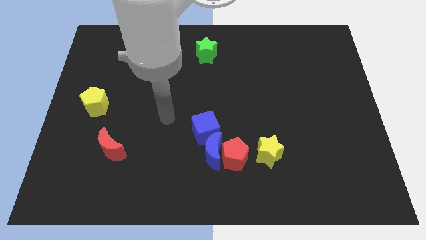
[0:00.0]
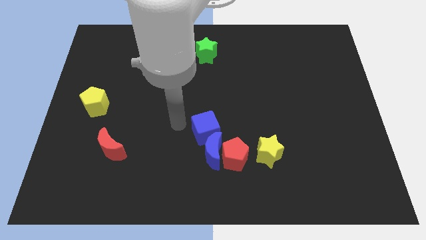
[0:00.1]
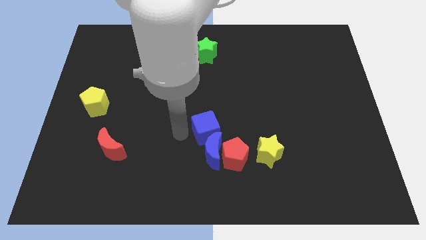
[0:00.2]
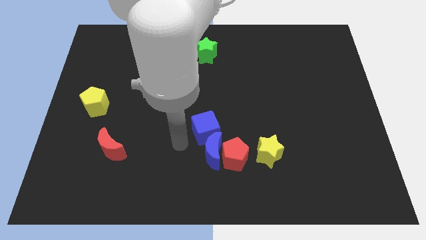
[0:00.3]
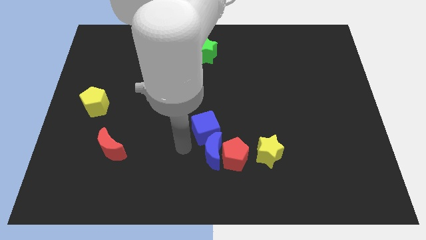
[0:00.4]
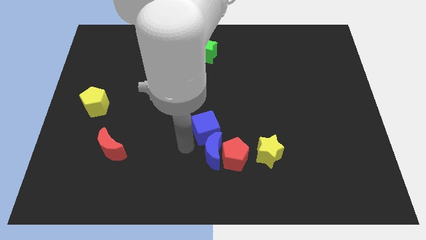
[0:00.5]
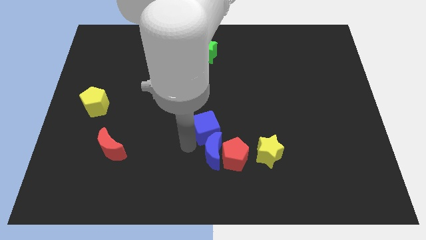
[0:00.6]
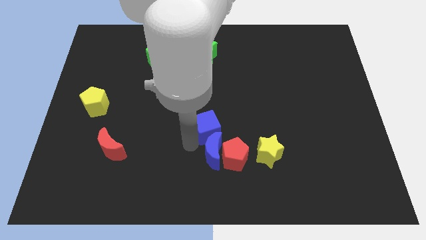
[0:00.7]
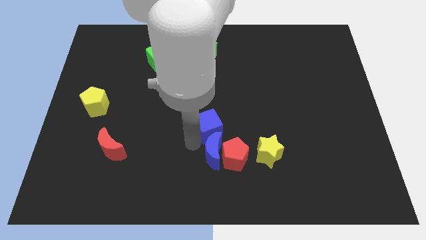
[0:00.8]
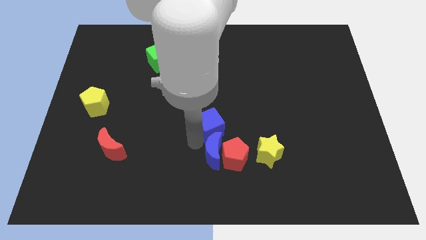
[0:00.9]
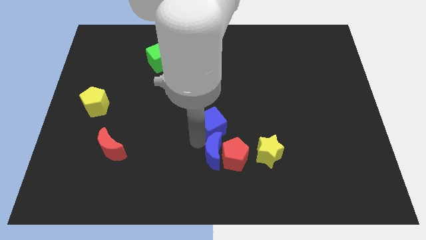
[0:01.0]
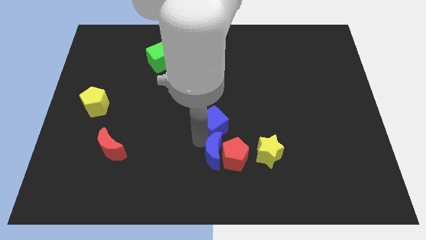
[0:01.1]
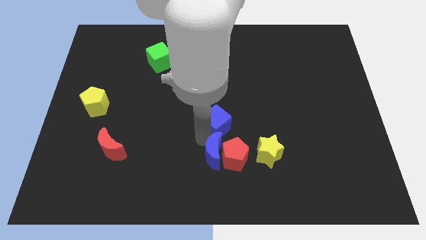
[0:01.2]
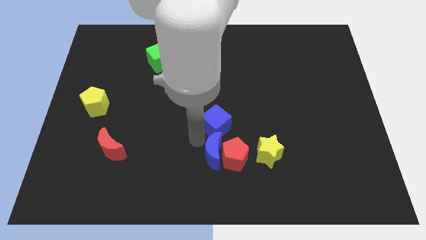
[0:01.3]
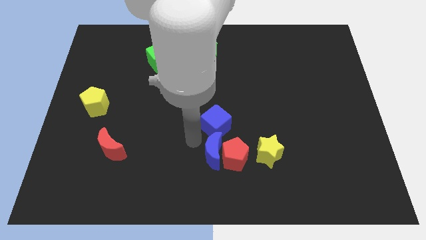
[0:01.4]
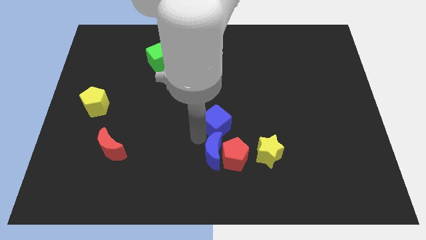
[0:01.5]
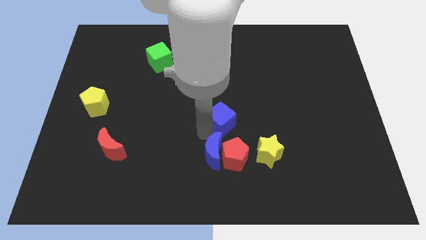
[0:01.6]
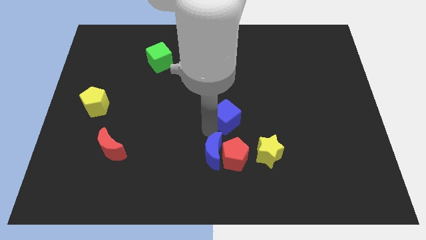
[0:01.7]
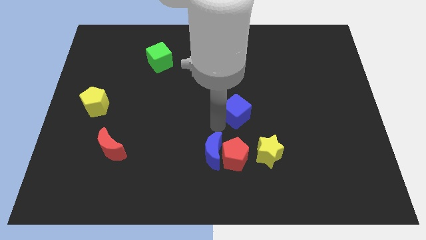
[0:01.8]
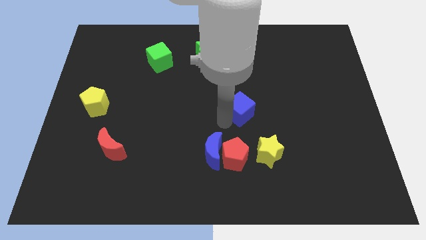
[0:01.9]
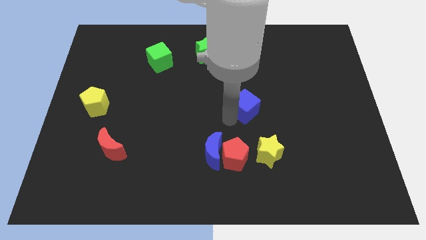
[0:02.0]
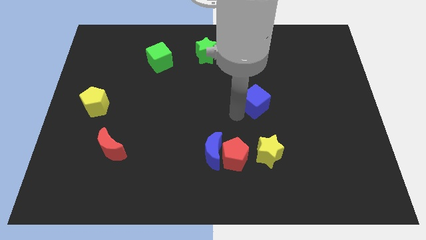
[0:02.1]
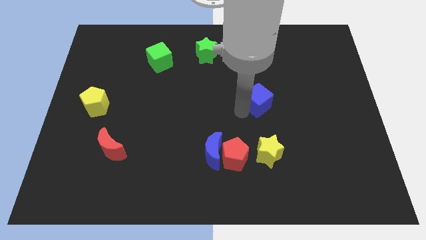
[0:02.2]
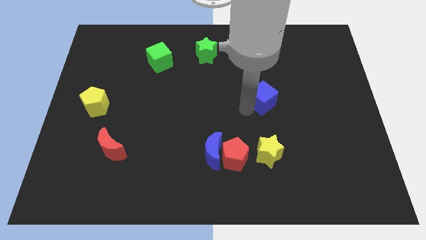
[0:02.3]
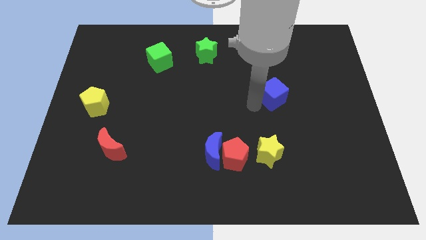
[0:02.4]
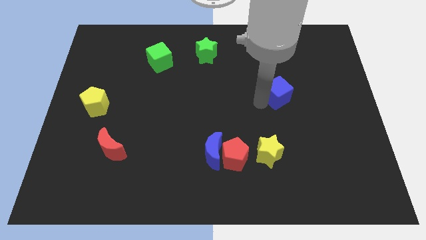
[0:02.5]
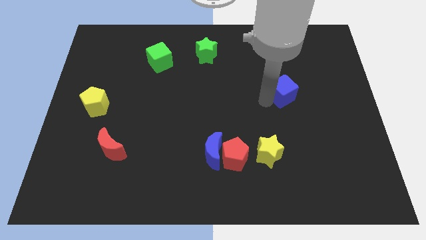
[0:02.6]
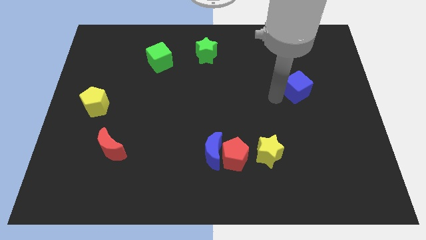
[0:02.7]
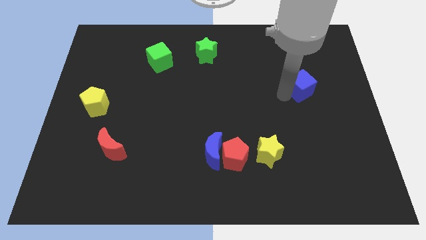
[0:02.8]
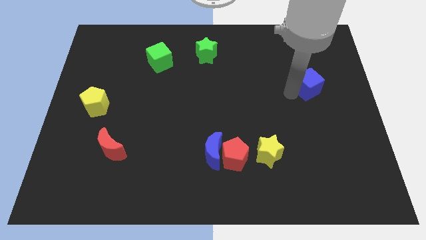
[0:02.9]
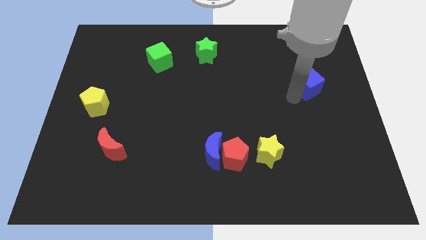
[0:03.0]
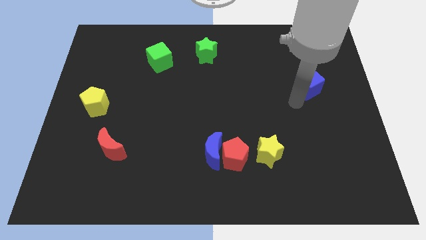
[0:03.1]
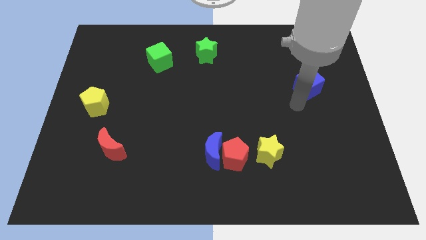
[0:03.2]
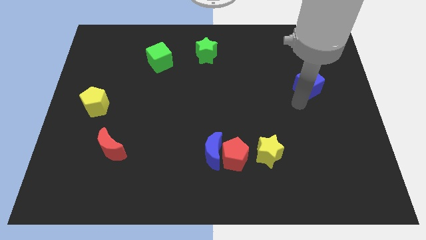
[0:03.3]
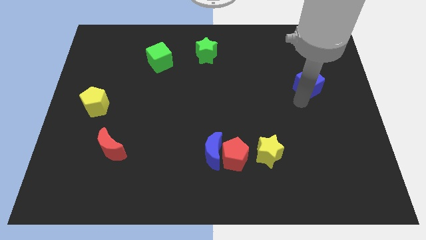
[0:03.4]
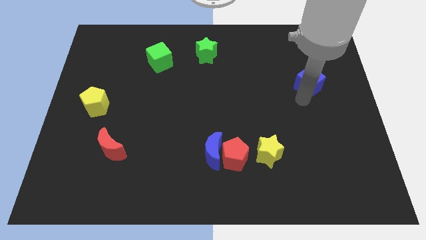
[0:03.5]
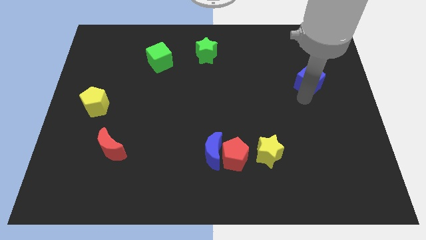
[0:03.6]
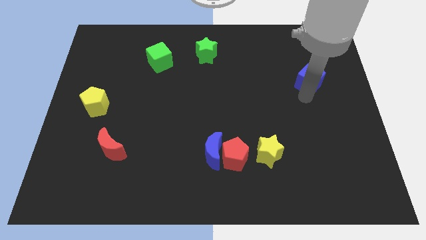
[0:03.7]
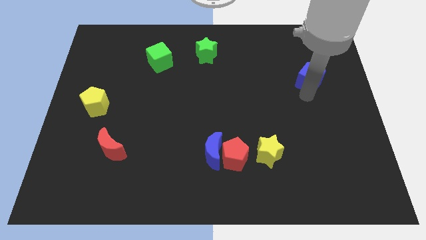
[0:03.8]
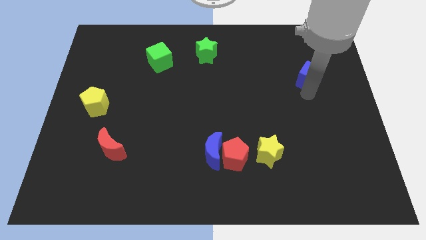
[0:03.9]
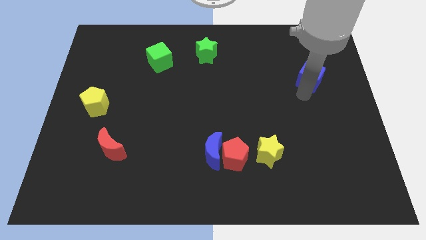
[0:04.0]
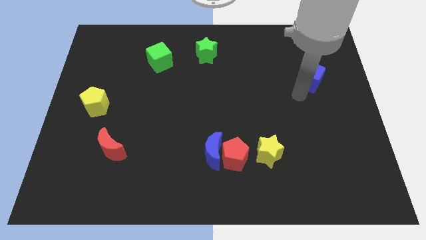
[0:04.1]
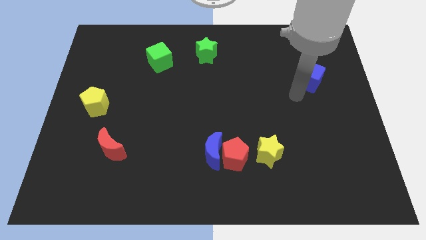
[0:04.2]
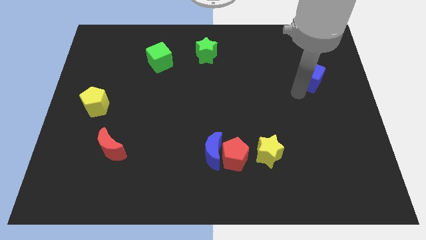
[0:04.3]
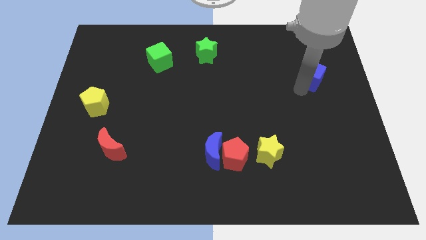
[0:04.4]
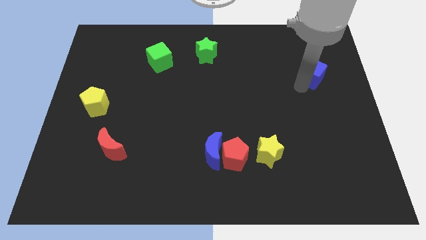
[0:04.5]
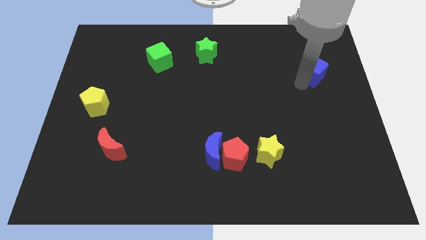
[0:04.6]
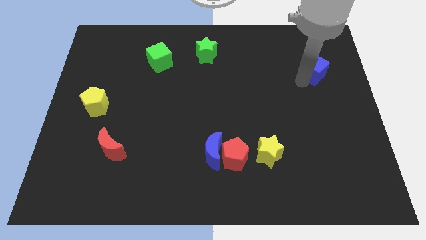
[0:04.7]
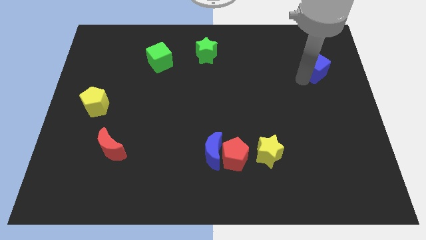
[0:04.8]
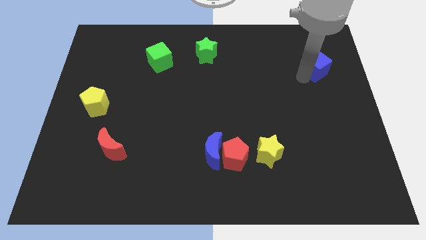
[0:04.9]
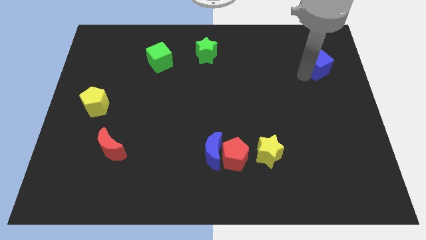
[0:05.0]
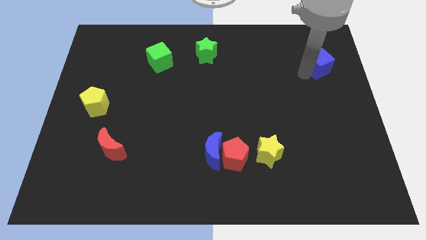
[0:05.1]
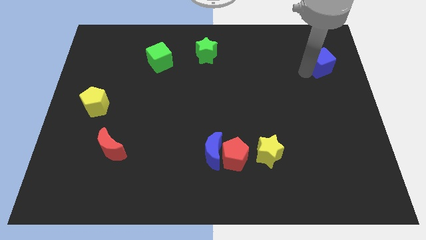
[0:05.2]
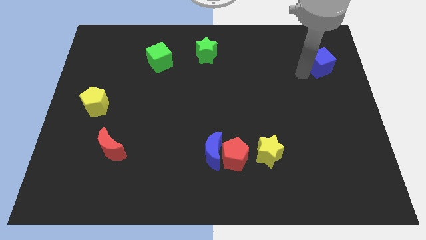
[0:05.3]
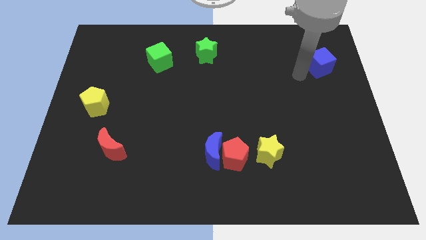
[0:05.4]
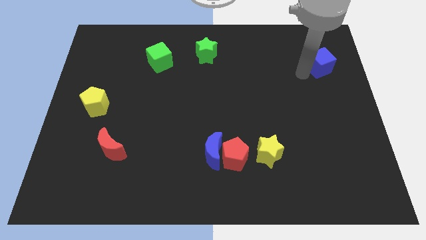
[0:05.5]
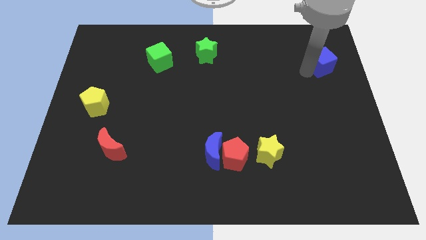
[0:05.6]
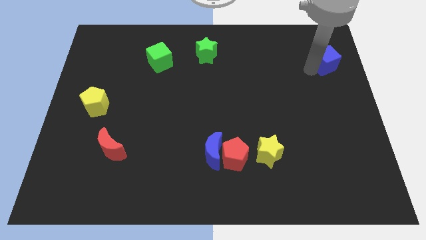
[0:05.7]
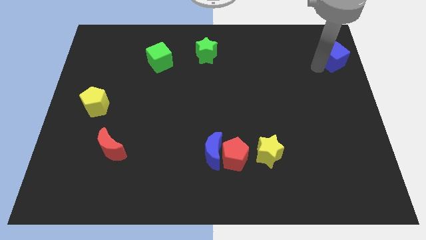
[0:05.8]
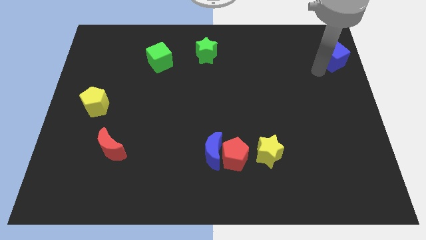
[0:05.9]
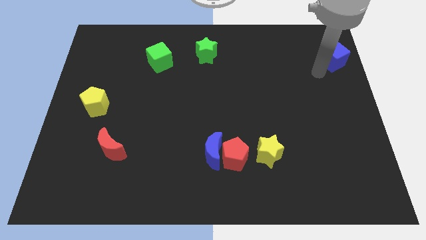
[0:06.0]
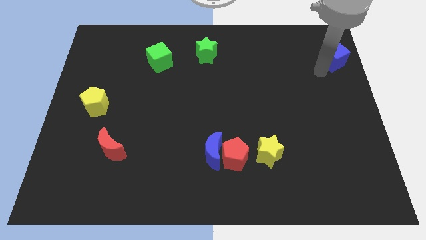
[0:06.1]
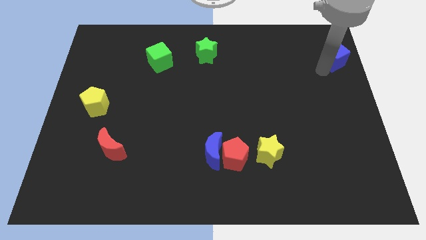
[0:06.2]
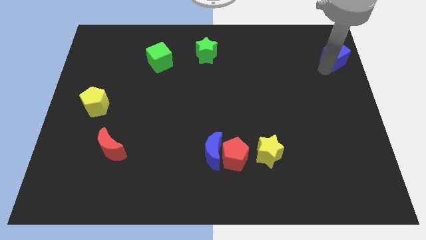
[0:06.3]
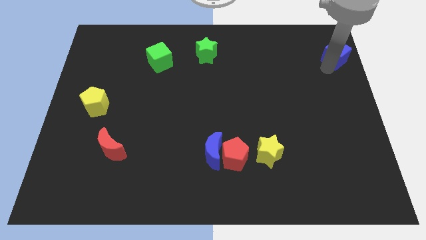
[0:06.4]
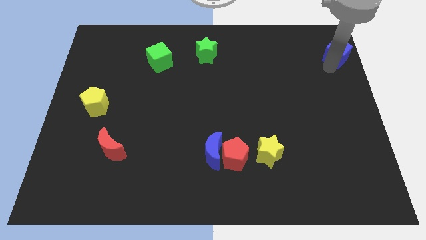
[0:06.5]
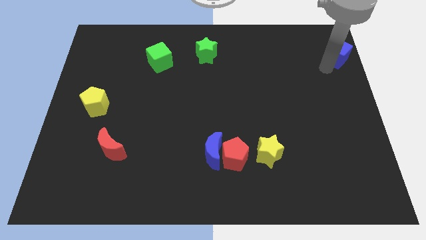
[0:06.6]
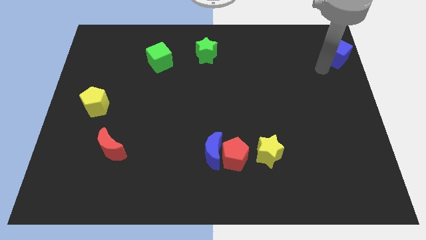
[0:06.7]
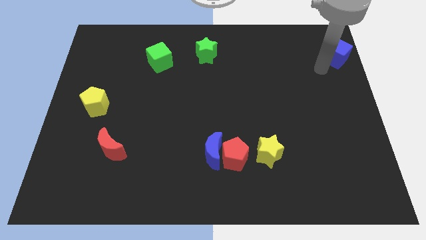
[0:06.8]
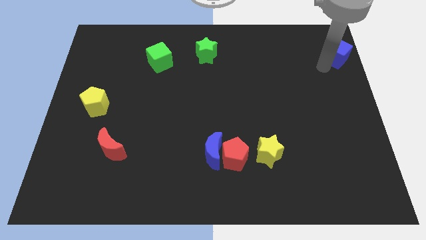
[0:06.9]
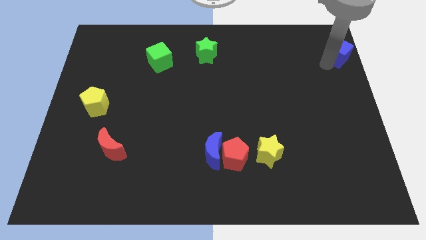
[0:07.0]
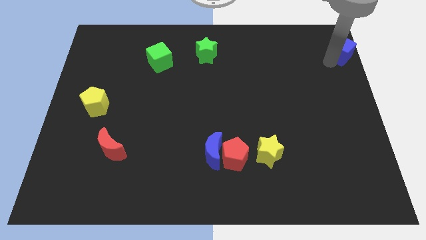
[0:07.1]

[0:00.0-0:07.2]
slide the blue cube to the top right corner
